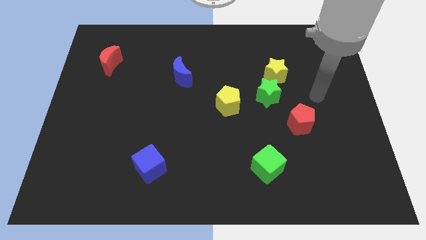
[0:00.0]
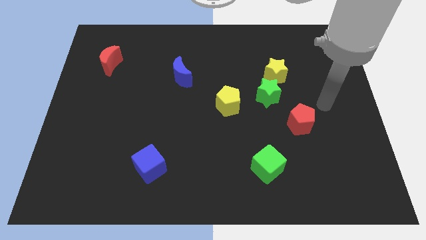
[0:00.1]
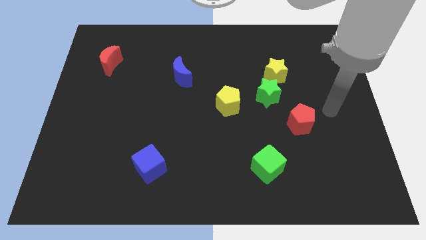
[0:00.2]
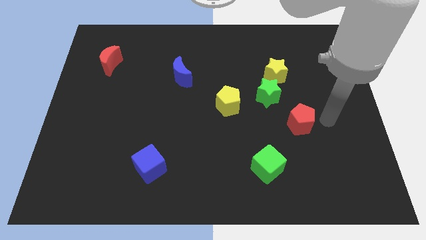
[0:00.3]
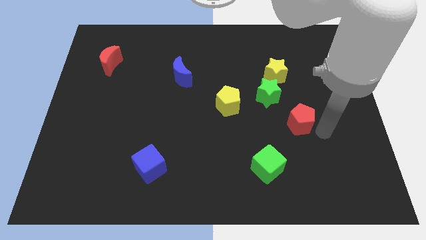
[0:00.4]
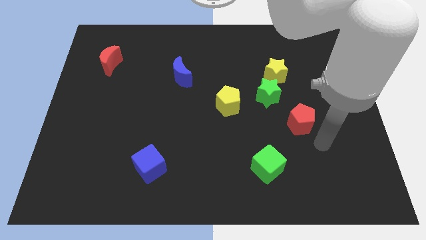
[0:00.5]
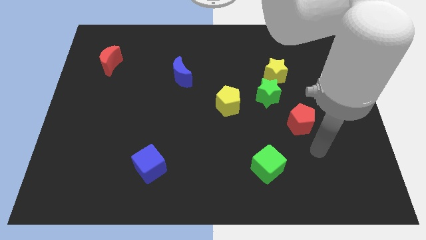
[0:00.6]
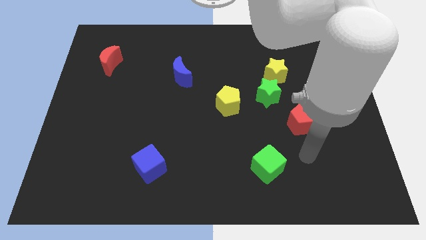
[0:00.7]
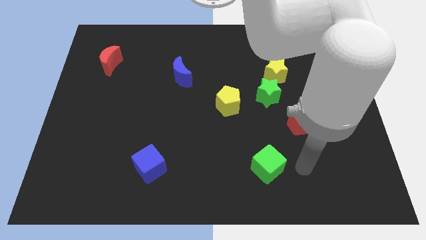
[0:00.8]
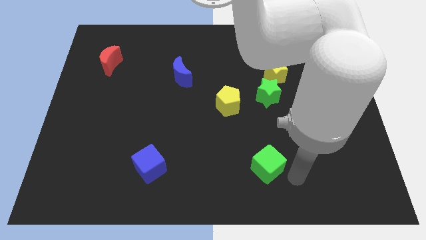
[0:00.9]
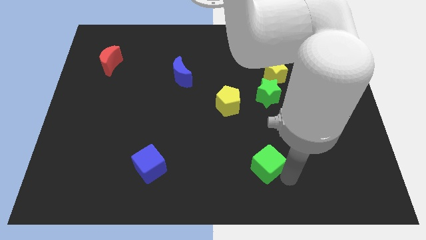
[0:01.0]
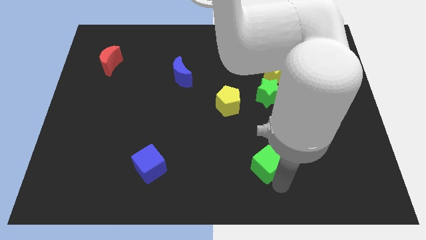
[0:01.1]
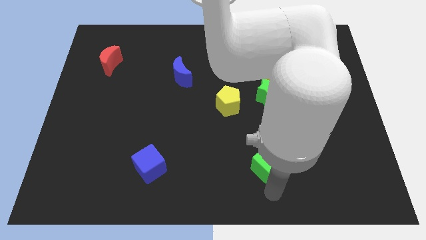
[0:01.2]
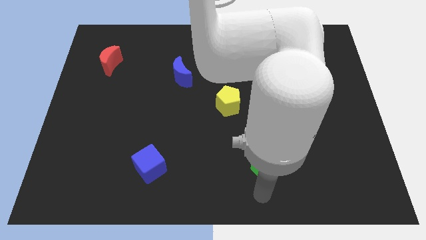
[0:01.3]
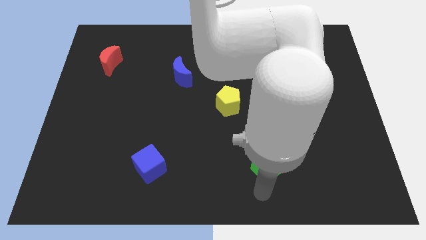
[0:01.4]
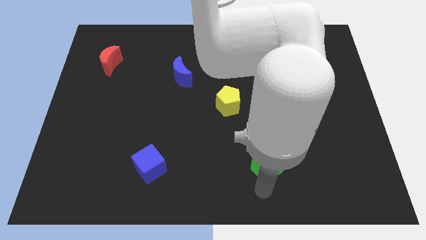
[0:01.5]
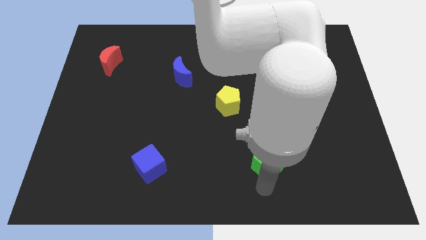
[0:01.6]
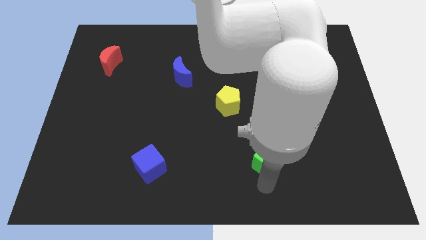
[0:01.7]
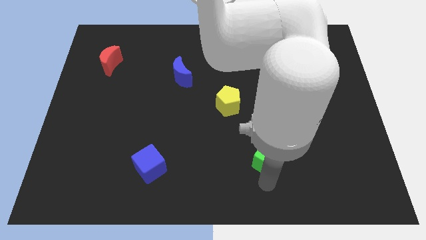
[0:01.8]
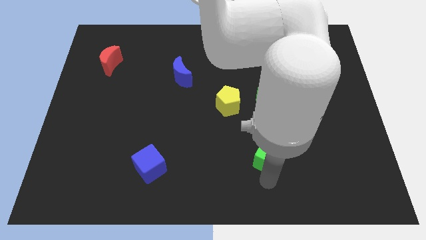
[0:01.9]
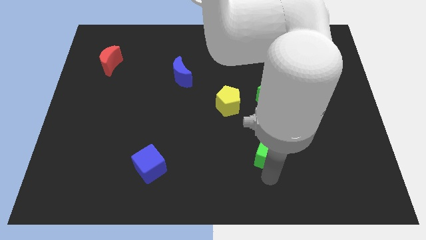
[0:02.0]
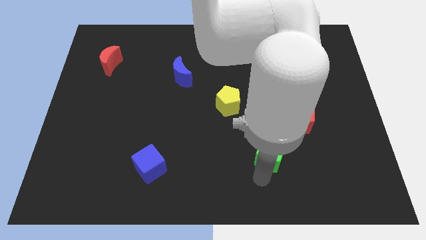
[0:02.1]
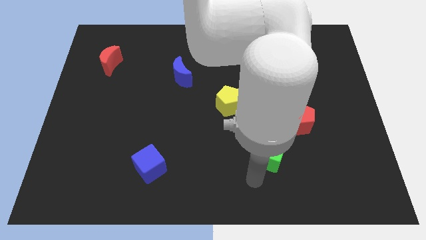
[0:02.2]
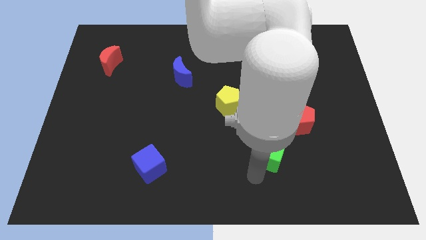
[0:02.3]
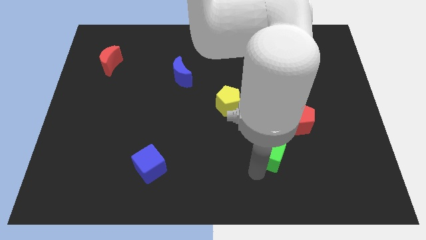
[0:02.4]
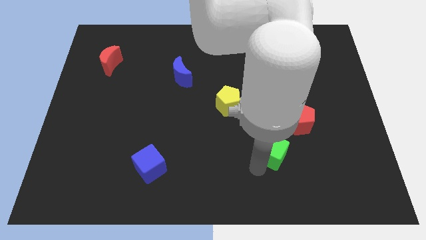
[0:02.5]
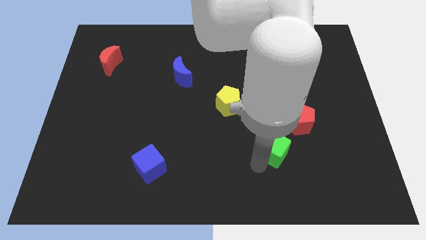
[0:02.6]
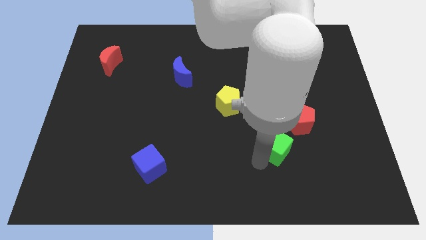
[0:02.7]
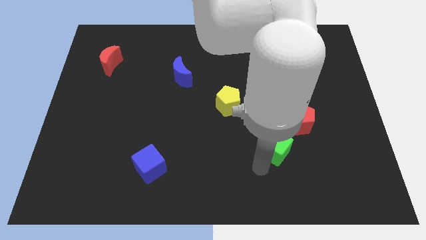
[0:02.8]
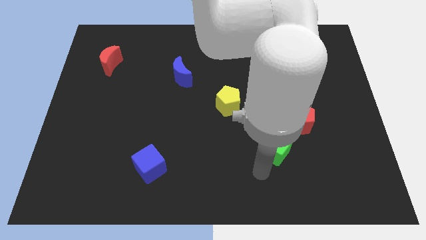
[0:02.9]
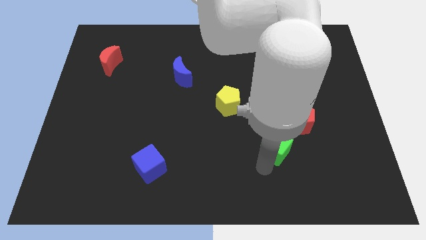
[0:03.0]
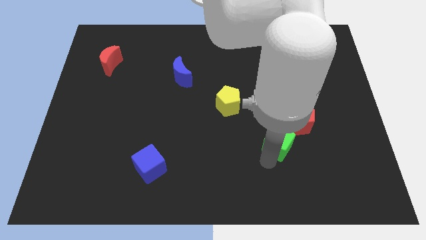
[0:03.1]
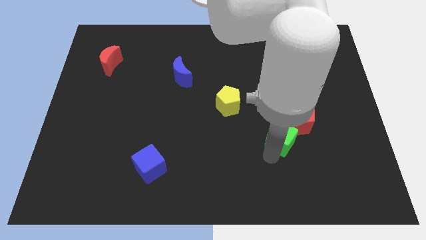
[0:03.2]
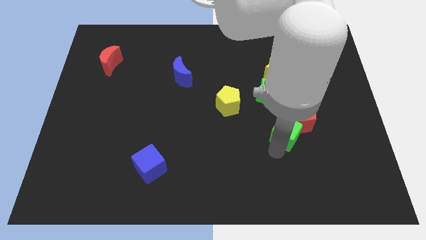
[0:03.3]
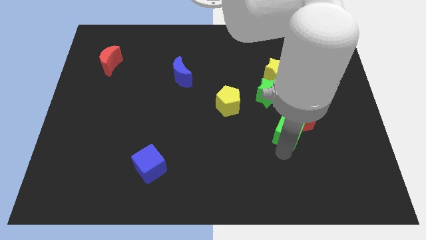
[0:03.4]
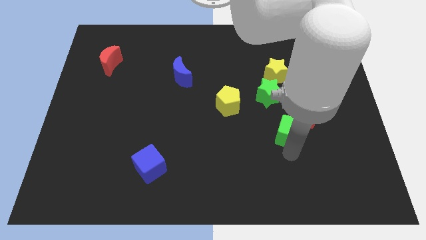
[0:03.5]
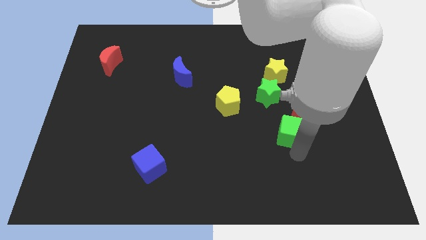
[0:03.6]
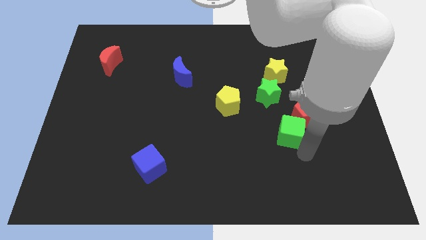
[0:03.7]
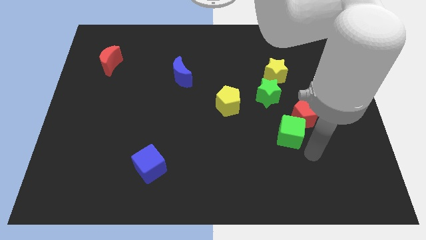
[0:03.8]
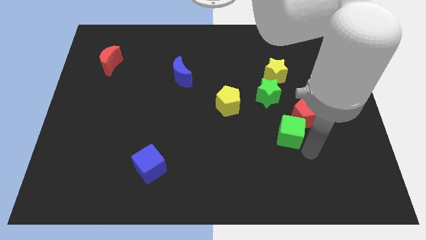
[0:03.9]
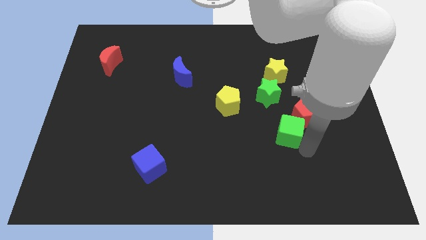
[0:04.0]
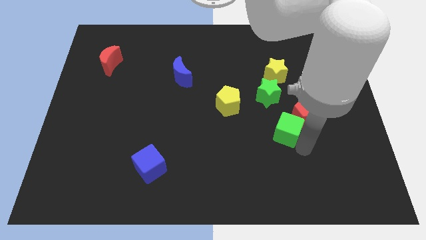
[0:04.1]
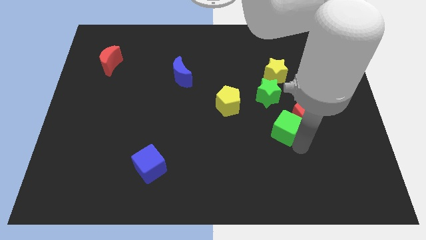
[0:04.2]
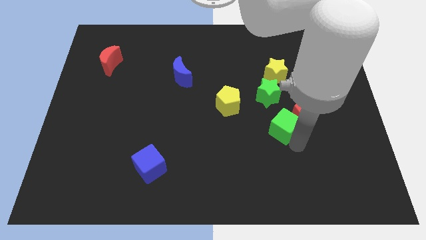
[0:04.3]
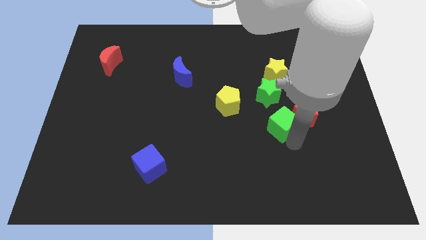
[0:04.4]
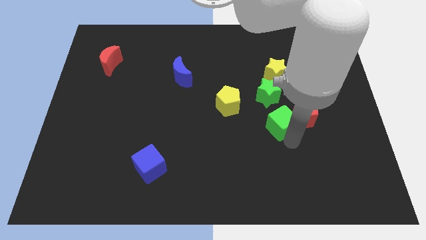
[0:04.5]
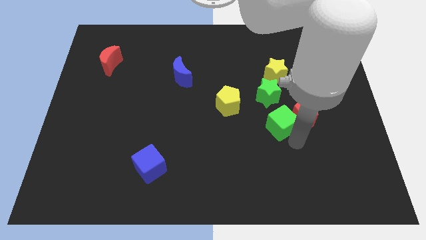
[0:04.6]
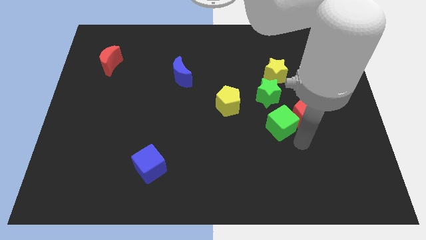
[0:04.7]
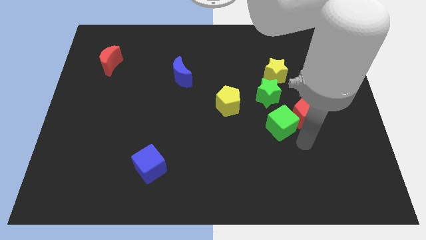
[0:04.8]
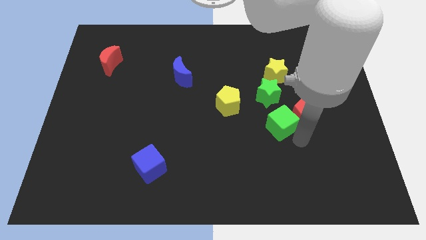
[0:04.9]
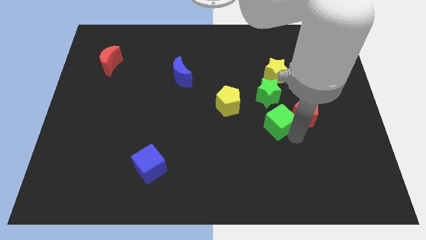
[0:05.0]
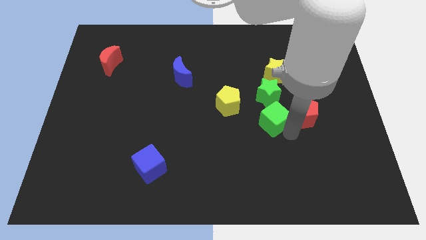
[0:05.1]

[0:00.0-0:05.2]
slide the green cube to the right side of the yellow pentagon

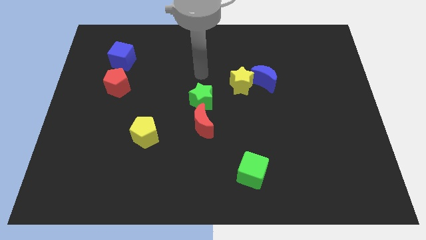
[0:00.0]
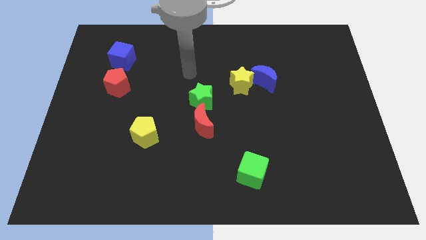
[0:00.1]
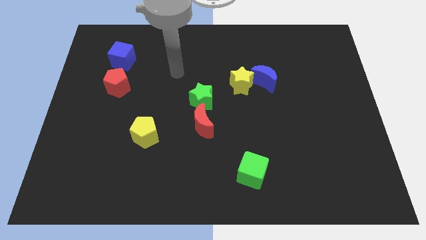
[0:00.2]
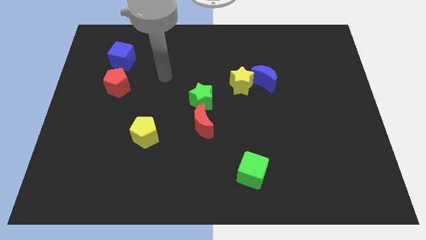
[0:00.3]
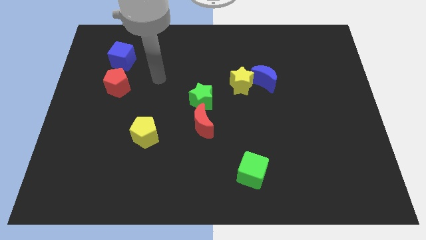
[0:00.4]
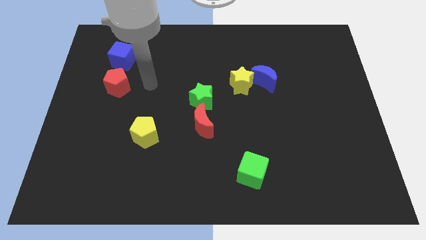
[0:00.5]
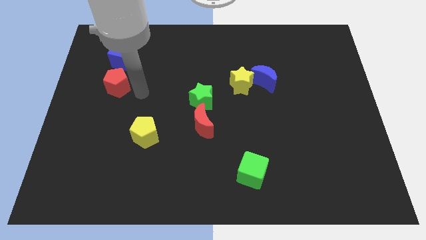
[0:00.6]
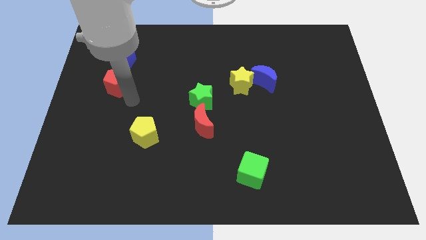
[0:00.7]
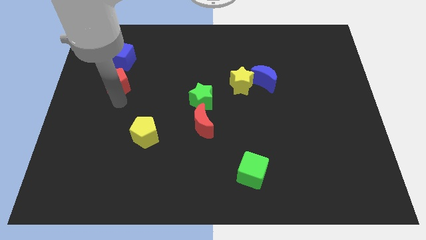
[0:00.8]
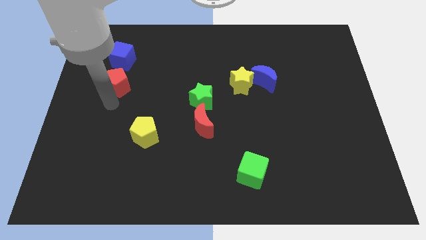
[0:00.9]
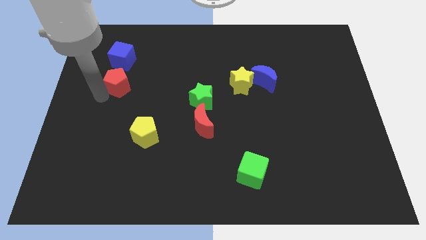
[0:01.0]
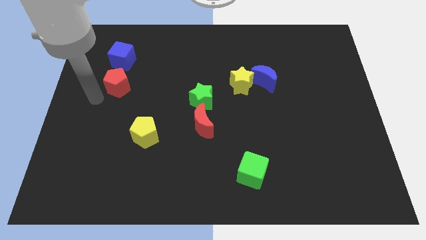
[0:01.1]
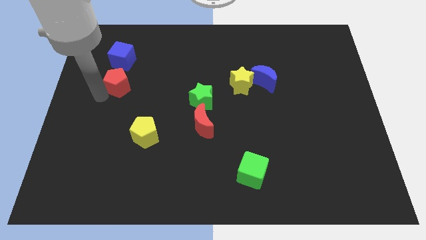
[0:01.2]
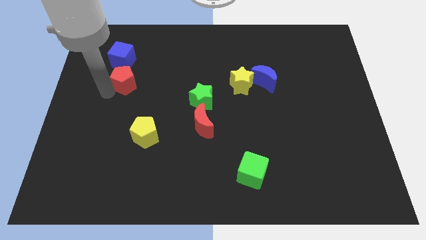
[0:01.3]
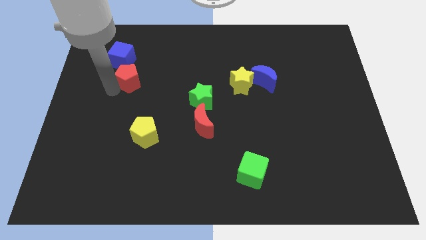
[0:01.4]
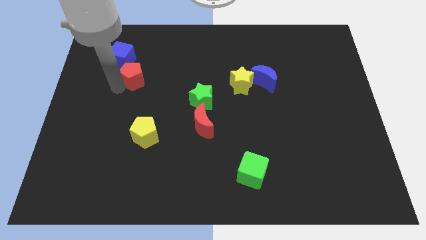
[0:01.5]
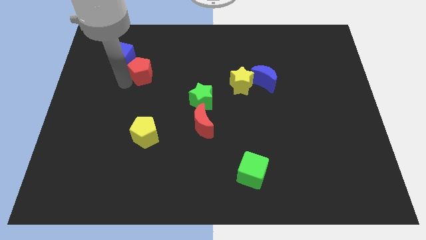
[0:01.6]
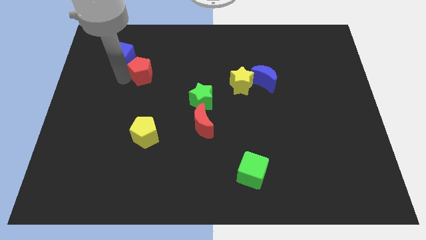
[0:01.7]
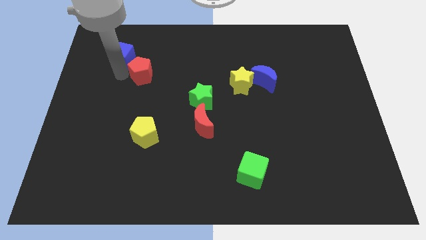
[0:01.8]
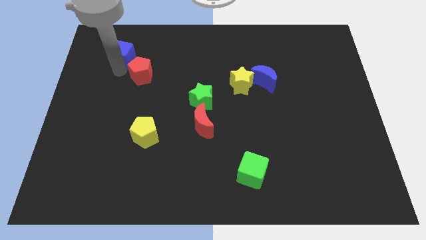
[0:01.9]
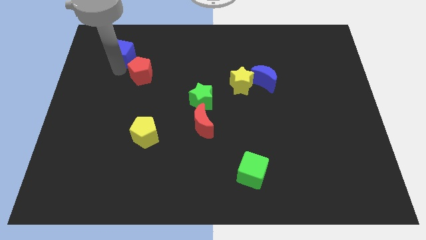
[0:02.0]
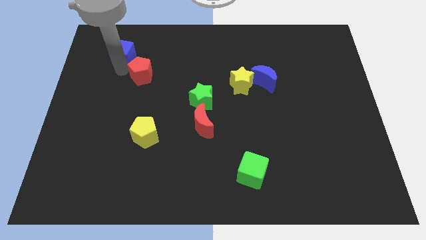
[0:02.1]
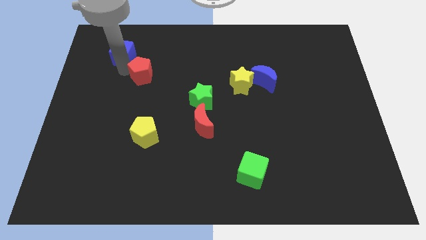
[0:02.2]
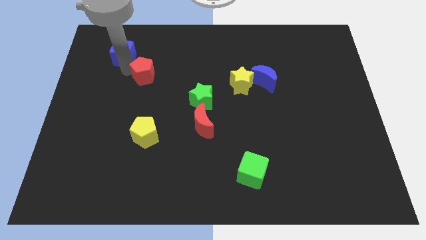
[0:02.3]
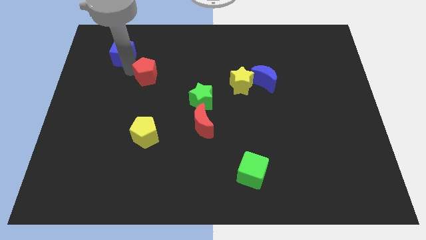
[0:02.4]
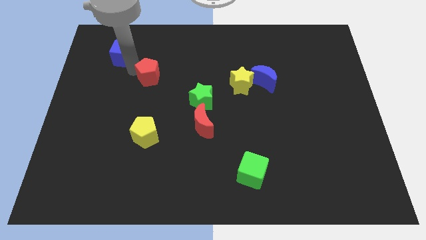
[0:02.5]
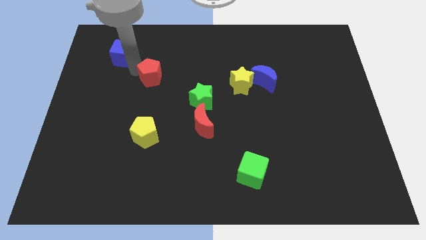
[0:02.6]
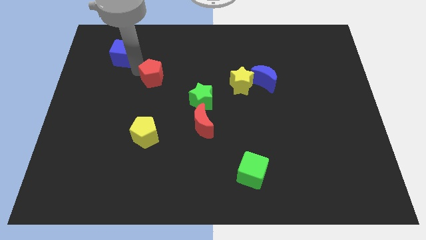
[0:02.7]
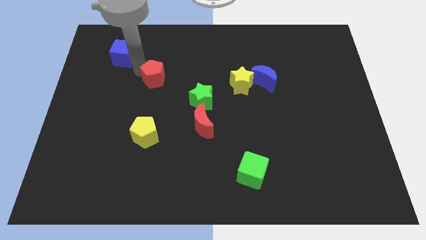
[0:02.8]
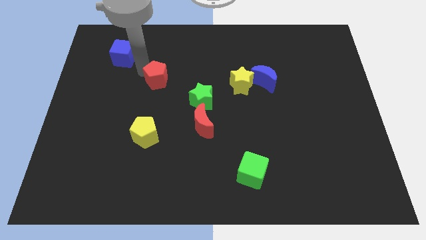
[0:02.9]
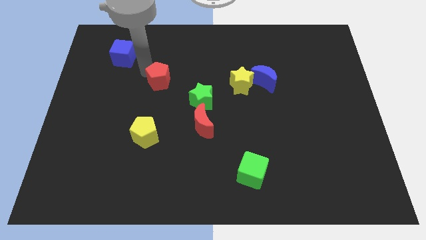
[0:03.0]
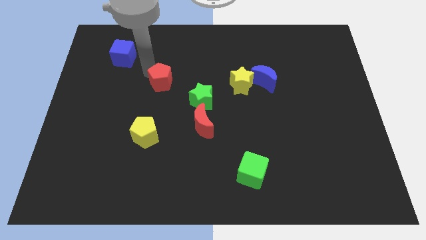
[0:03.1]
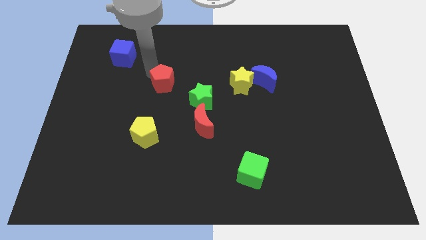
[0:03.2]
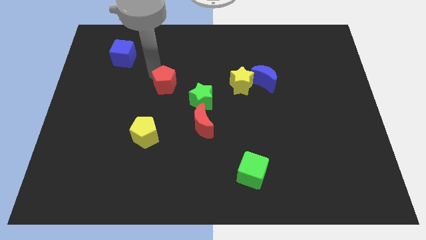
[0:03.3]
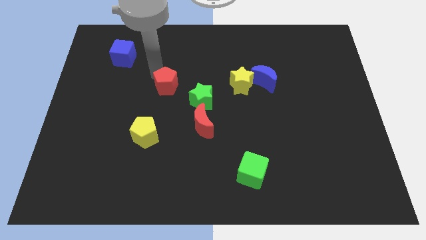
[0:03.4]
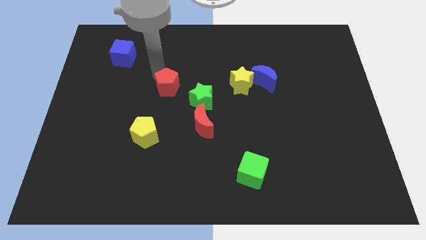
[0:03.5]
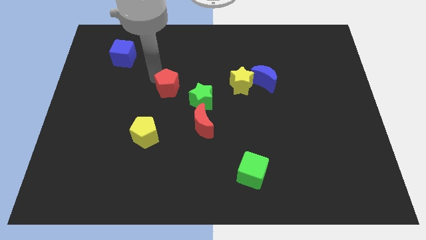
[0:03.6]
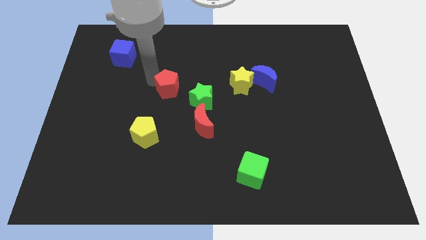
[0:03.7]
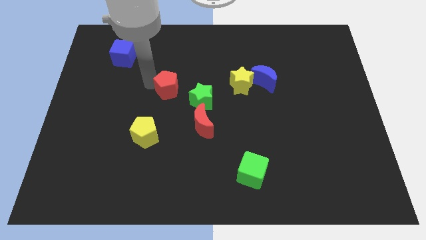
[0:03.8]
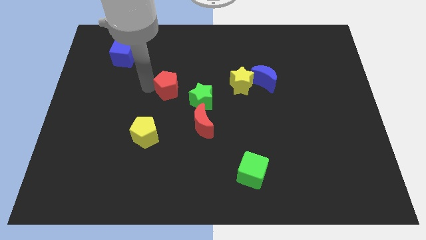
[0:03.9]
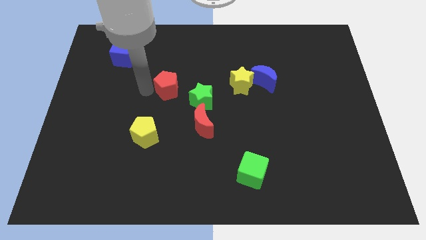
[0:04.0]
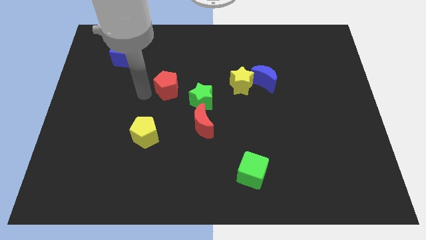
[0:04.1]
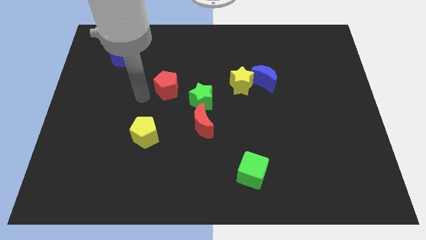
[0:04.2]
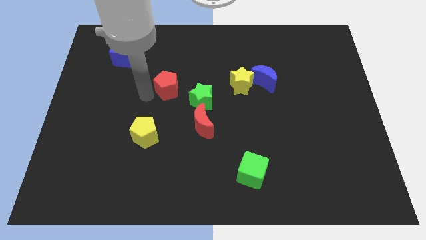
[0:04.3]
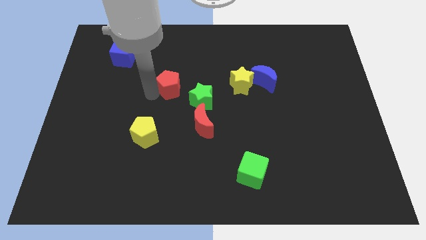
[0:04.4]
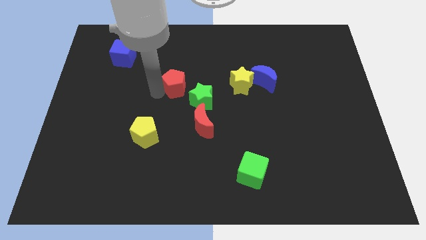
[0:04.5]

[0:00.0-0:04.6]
push the red pentagon to the left side of the yellow star
